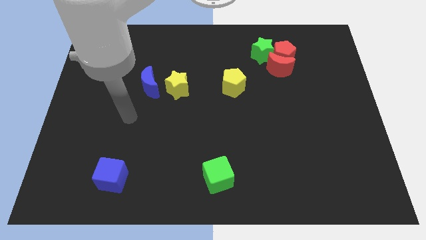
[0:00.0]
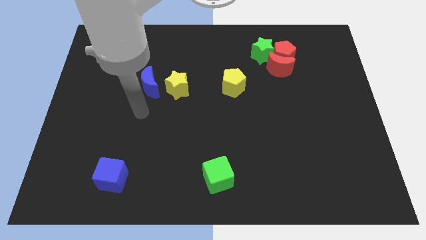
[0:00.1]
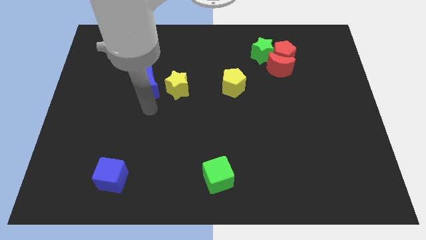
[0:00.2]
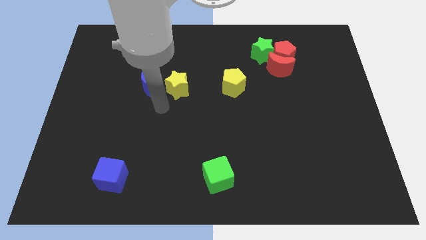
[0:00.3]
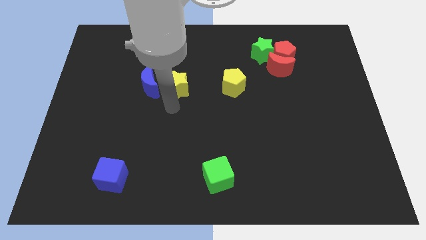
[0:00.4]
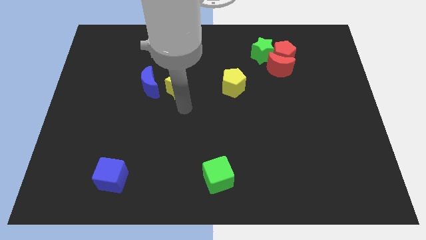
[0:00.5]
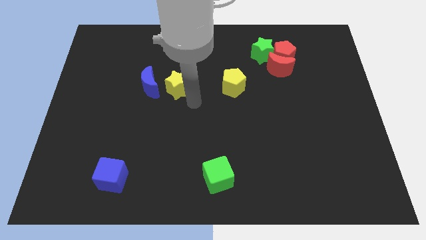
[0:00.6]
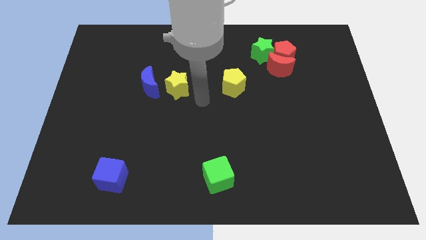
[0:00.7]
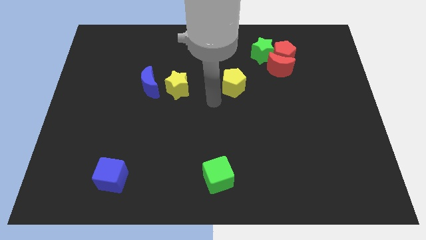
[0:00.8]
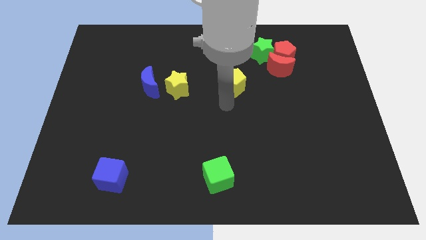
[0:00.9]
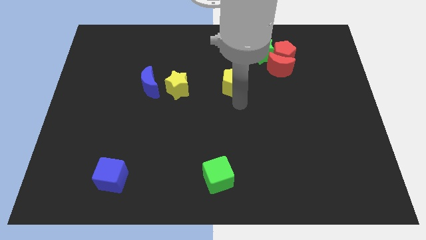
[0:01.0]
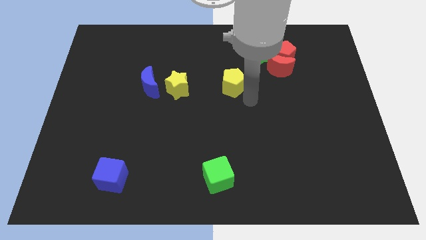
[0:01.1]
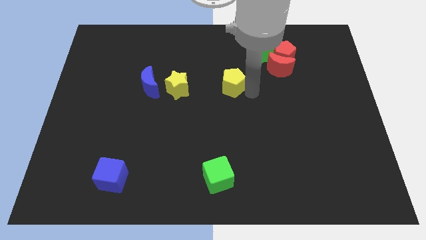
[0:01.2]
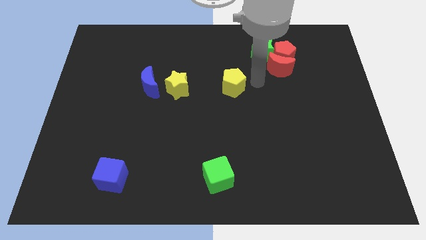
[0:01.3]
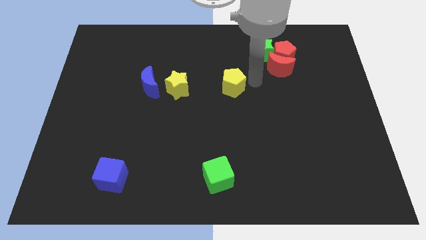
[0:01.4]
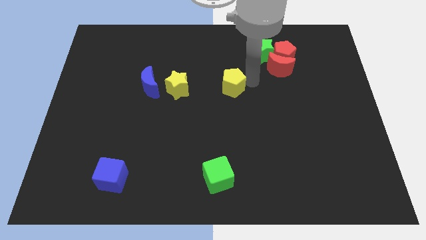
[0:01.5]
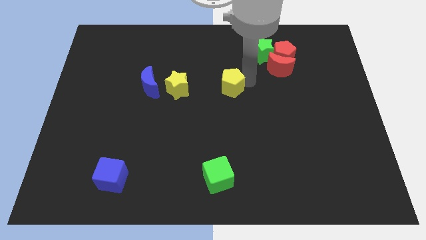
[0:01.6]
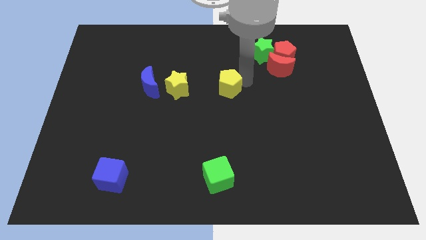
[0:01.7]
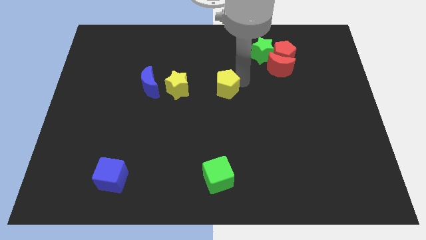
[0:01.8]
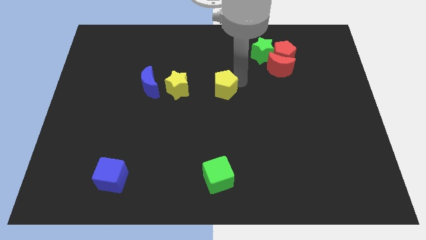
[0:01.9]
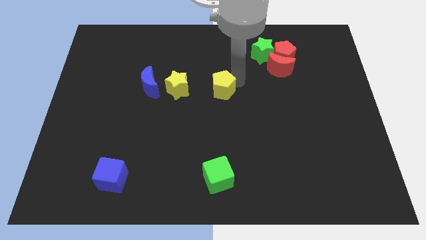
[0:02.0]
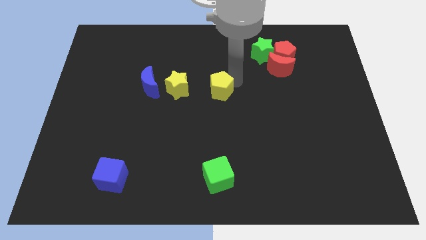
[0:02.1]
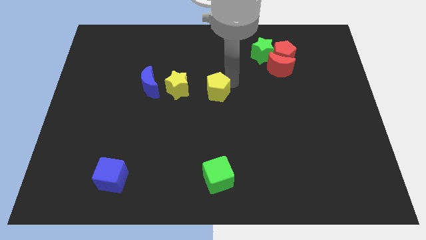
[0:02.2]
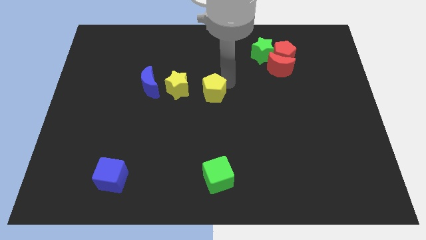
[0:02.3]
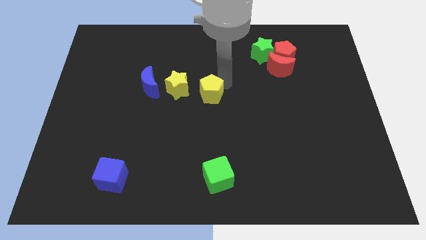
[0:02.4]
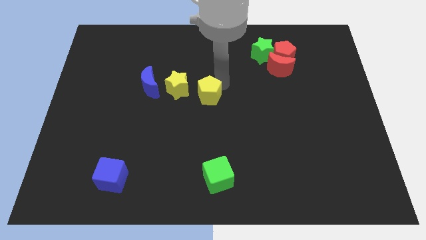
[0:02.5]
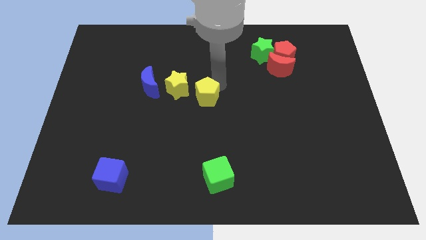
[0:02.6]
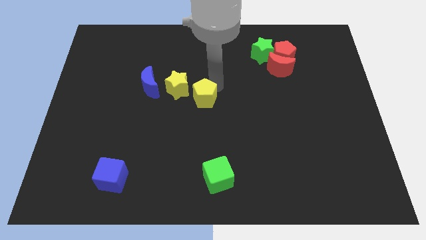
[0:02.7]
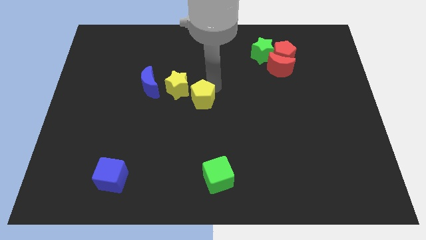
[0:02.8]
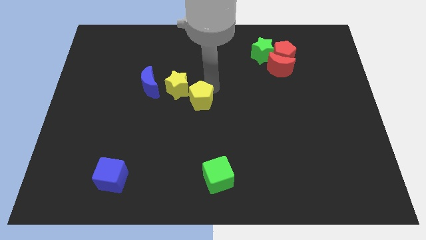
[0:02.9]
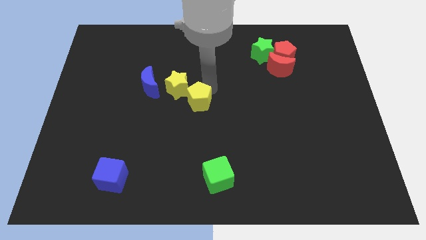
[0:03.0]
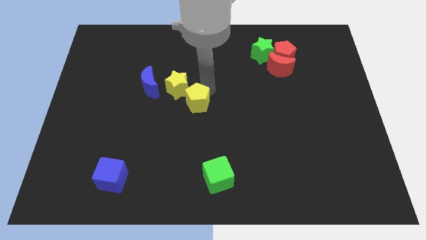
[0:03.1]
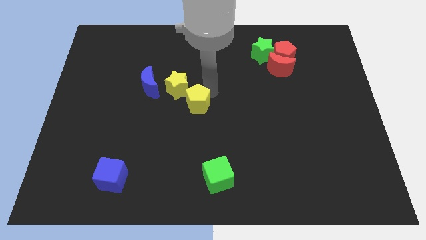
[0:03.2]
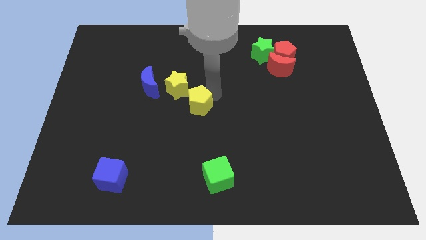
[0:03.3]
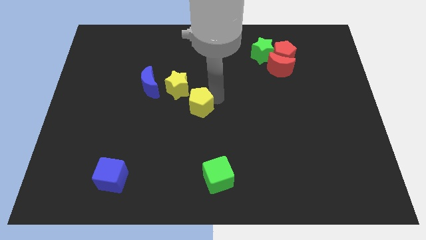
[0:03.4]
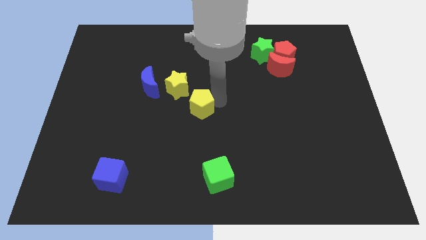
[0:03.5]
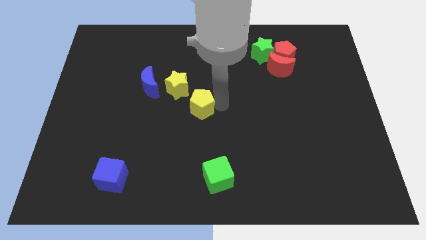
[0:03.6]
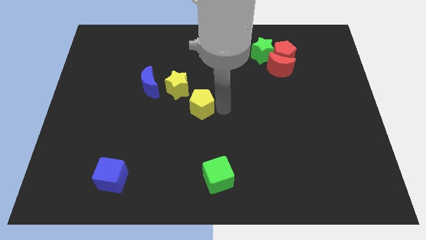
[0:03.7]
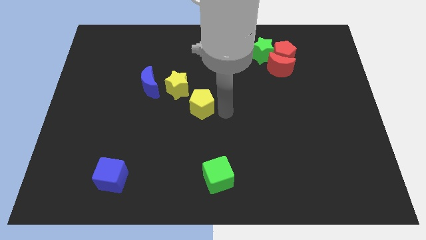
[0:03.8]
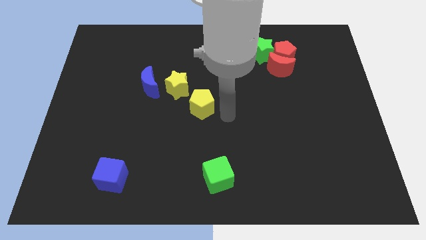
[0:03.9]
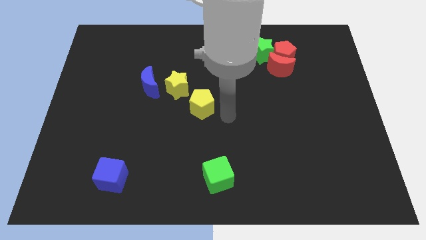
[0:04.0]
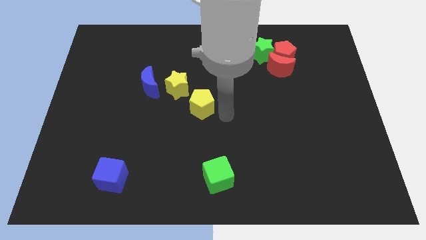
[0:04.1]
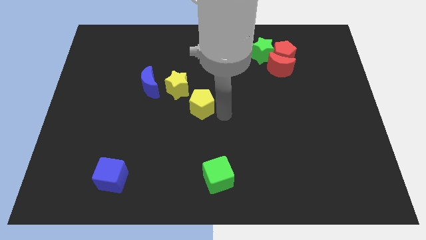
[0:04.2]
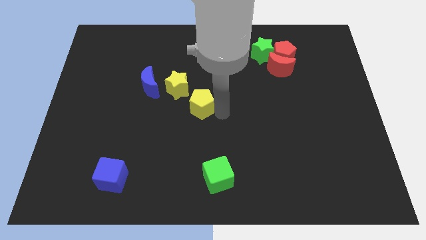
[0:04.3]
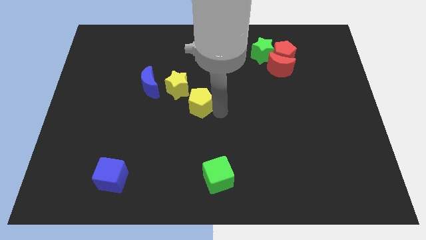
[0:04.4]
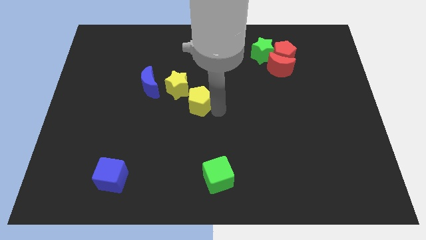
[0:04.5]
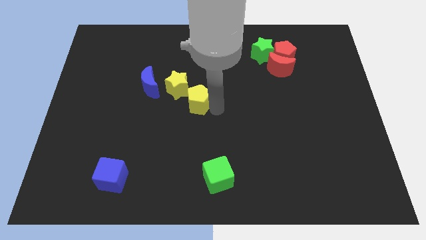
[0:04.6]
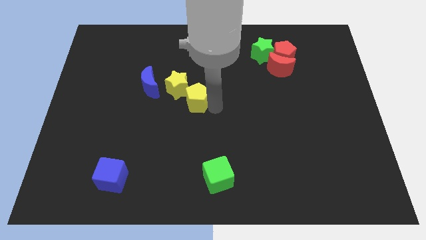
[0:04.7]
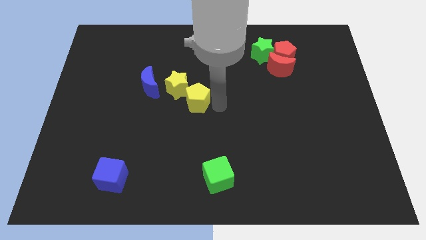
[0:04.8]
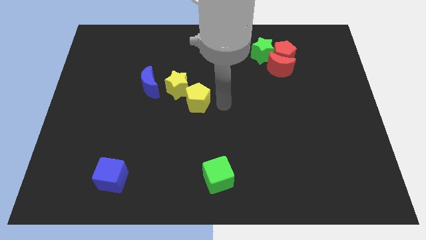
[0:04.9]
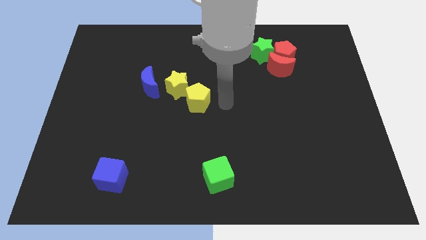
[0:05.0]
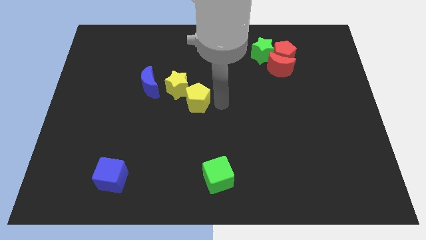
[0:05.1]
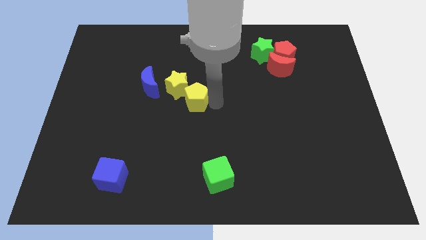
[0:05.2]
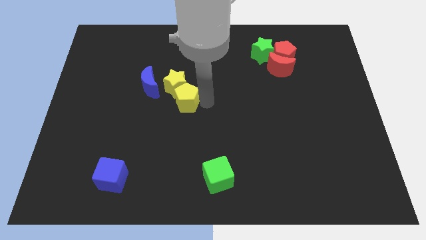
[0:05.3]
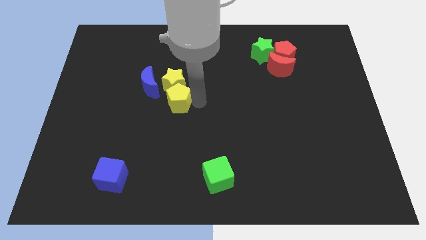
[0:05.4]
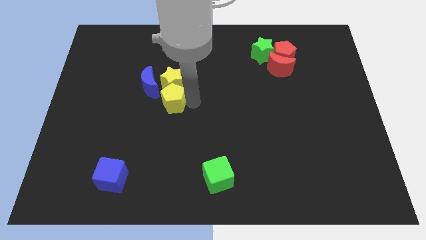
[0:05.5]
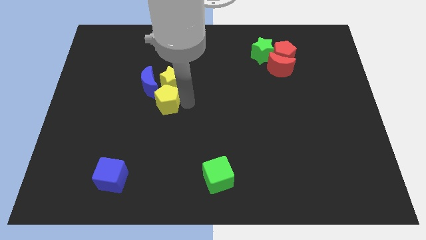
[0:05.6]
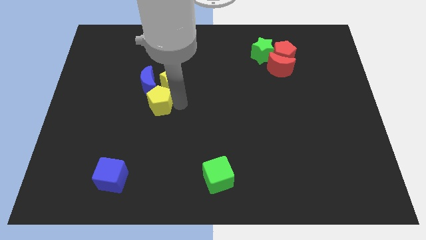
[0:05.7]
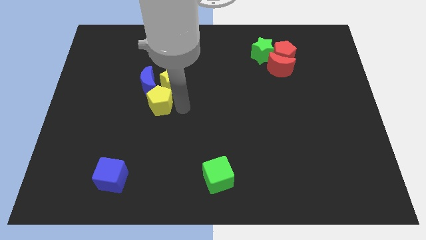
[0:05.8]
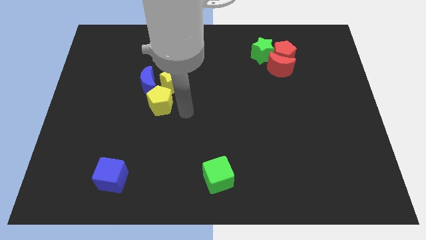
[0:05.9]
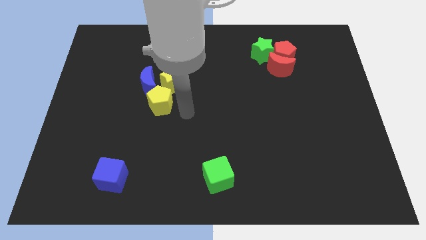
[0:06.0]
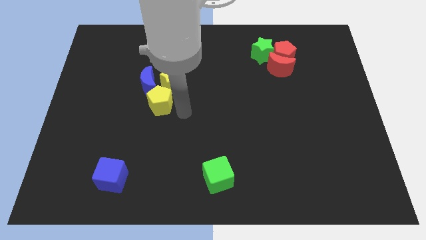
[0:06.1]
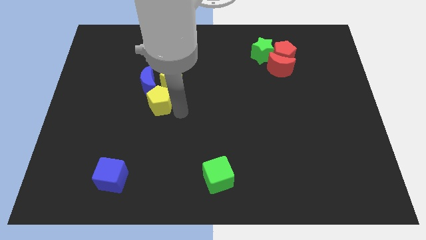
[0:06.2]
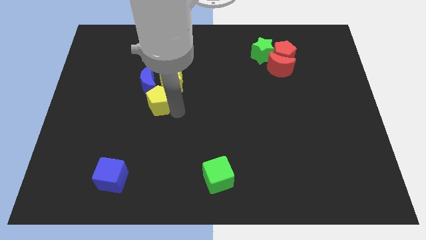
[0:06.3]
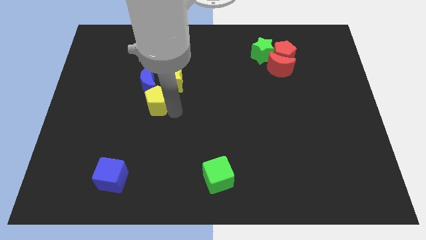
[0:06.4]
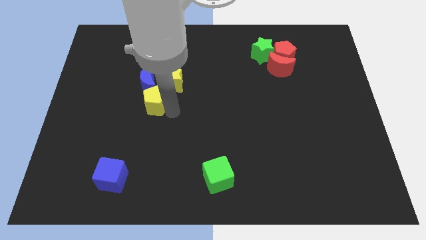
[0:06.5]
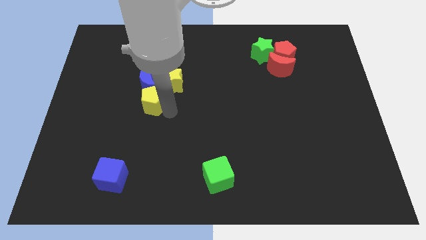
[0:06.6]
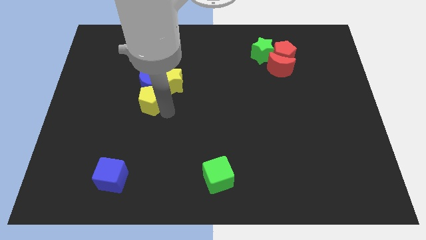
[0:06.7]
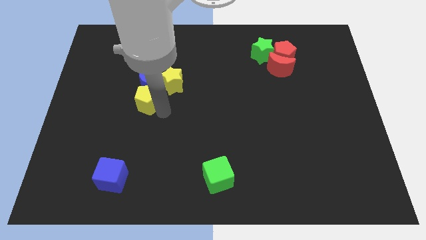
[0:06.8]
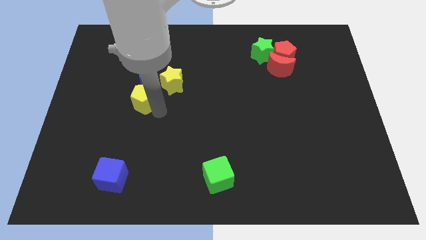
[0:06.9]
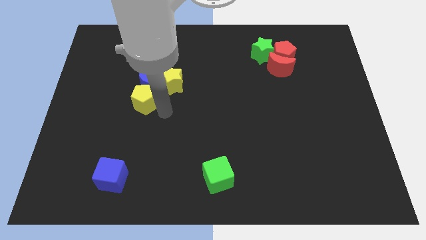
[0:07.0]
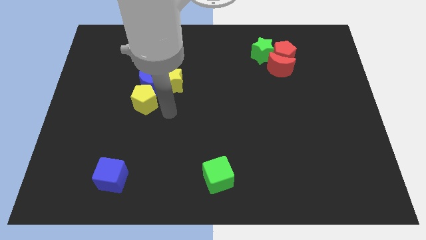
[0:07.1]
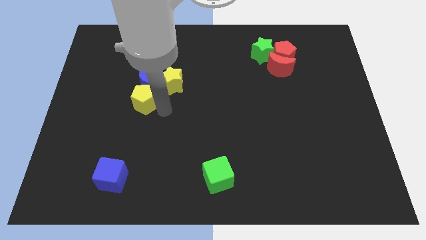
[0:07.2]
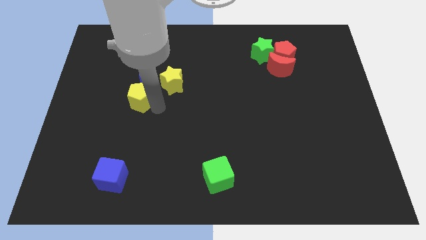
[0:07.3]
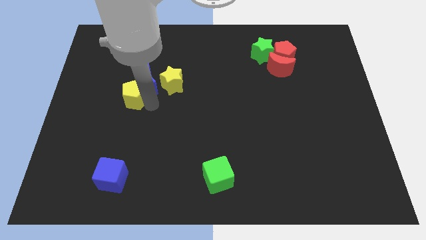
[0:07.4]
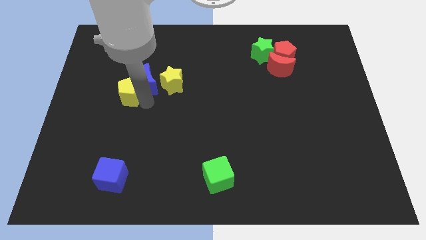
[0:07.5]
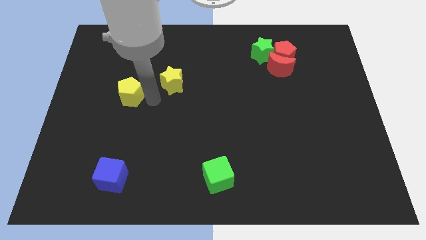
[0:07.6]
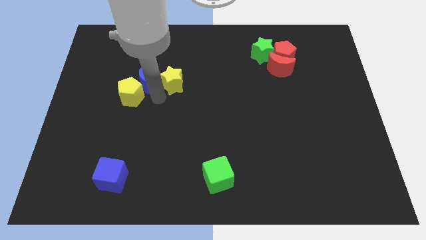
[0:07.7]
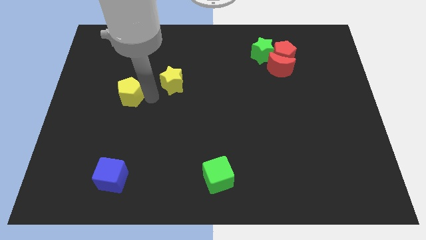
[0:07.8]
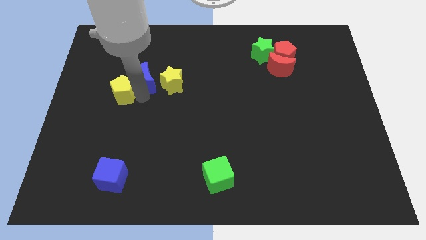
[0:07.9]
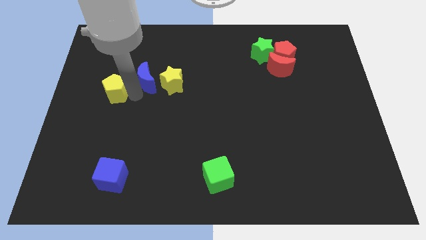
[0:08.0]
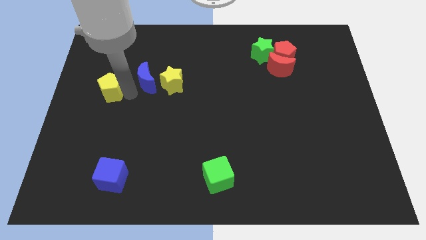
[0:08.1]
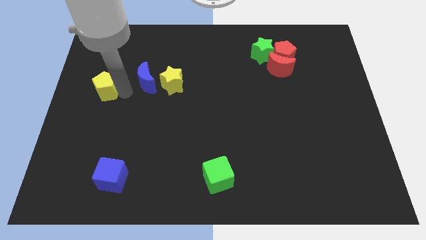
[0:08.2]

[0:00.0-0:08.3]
push the yellow pentagon to the left side
